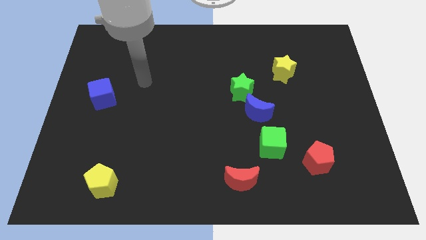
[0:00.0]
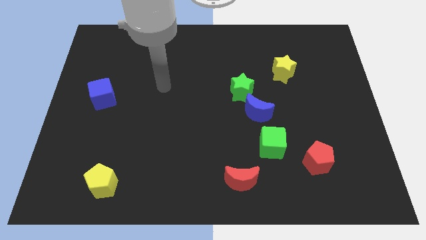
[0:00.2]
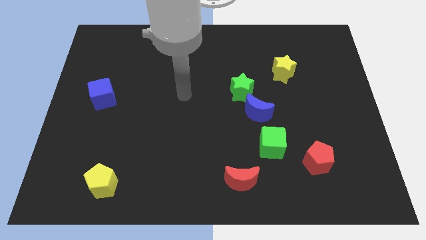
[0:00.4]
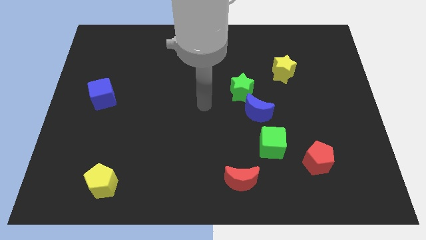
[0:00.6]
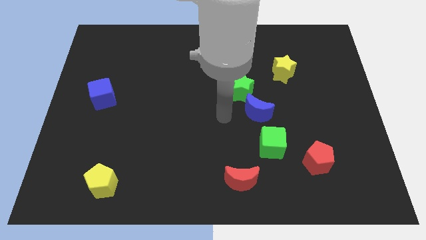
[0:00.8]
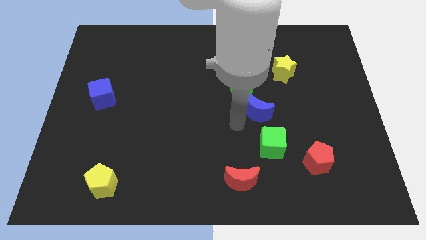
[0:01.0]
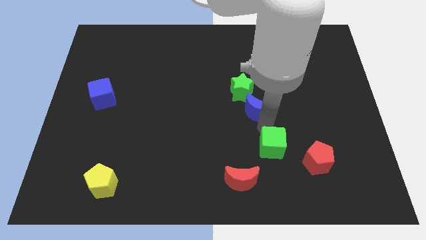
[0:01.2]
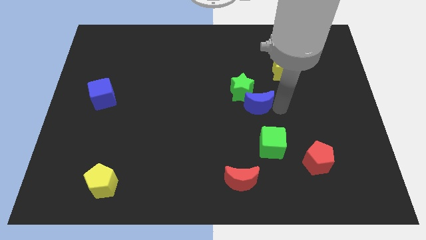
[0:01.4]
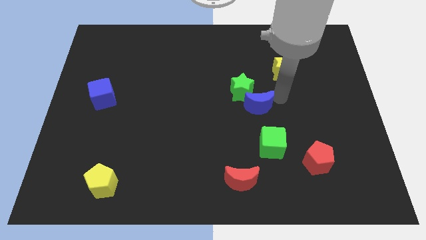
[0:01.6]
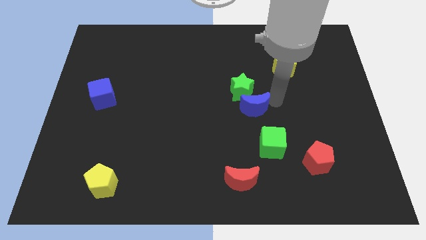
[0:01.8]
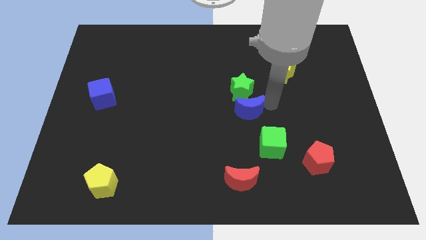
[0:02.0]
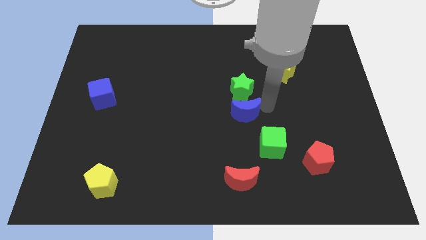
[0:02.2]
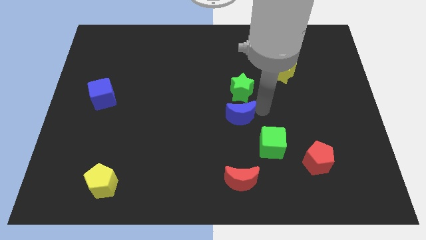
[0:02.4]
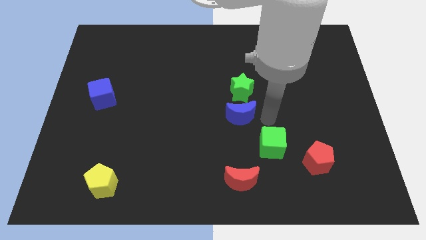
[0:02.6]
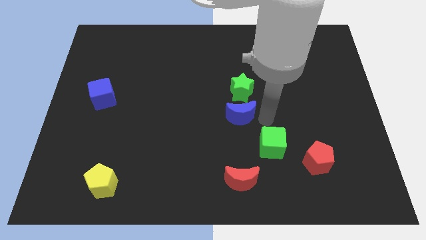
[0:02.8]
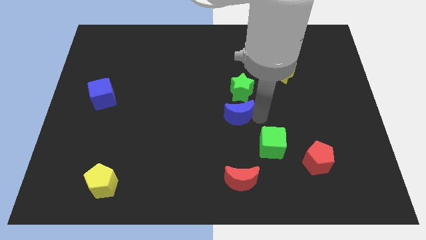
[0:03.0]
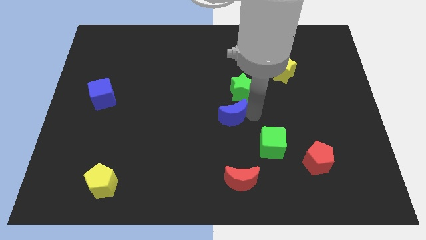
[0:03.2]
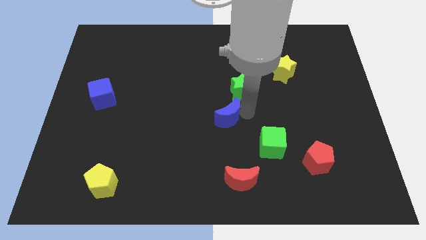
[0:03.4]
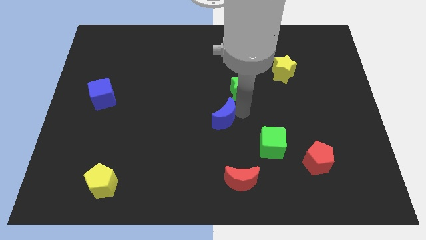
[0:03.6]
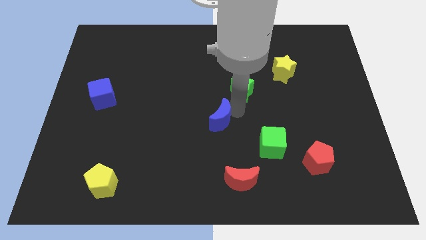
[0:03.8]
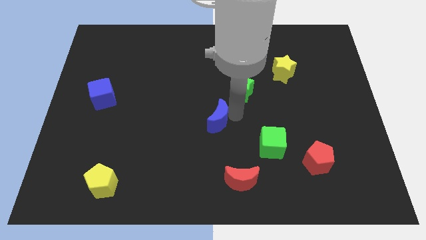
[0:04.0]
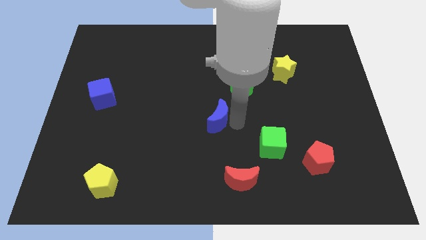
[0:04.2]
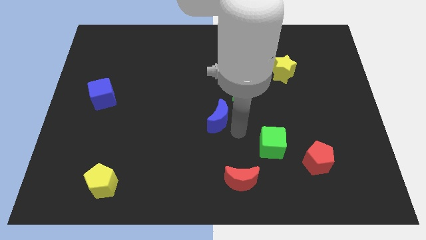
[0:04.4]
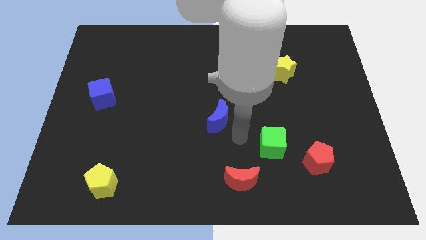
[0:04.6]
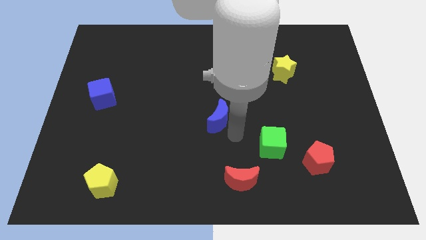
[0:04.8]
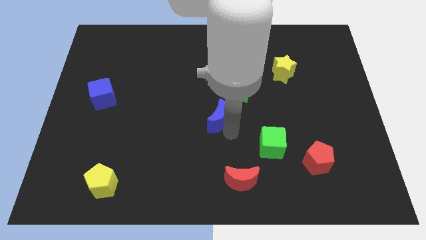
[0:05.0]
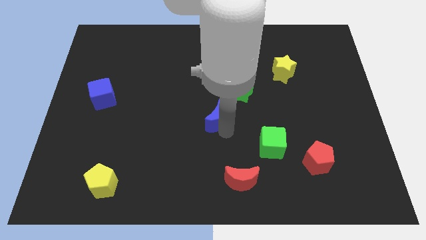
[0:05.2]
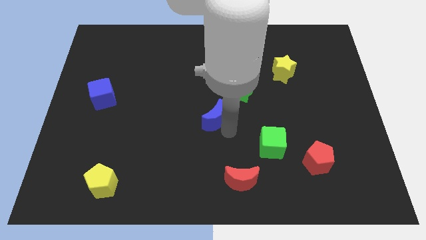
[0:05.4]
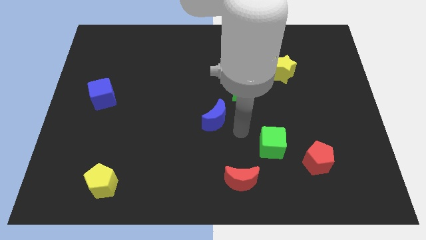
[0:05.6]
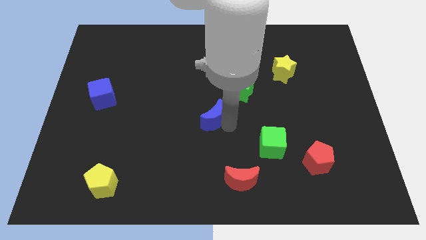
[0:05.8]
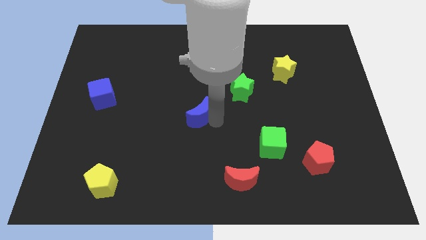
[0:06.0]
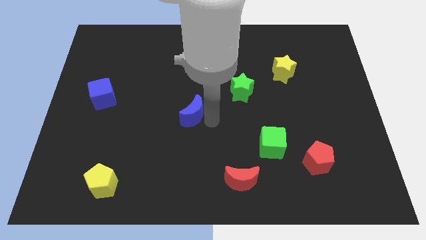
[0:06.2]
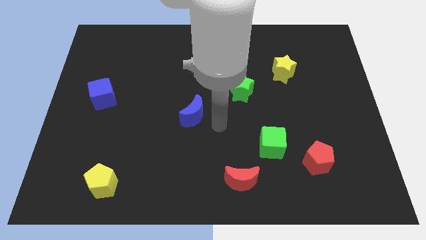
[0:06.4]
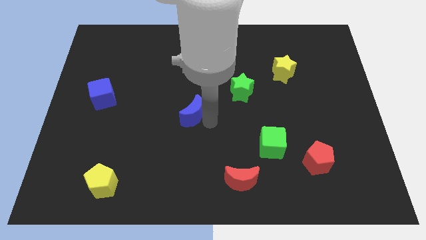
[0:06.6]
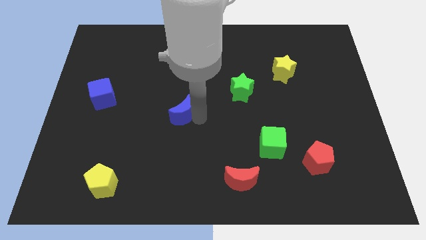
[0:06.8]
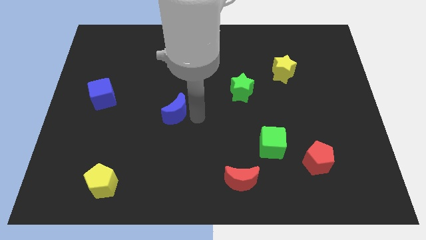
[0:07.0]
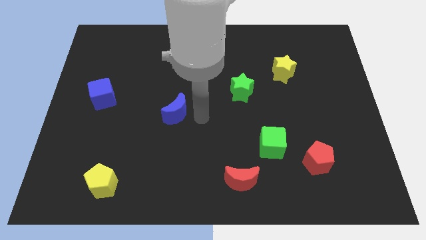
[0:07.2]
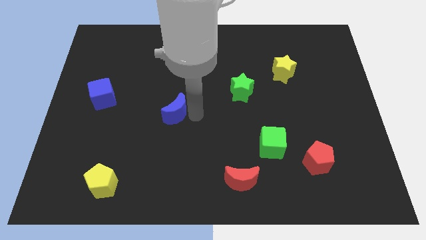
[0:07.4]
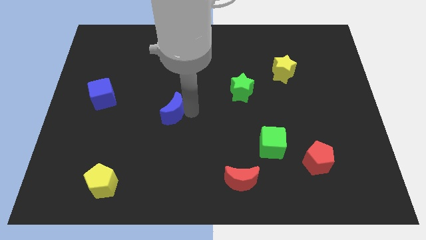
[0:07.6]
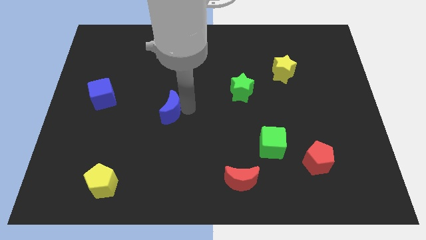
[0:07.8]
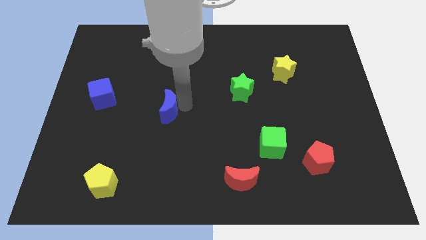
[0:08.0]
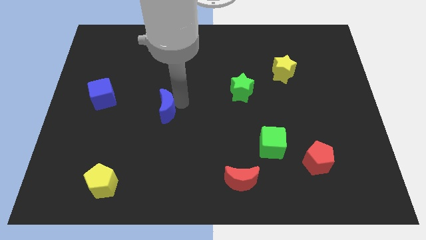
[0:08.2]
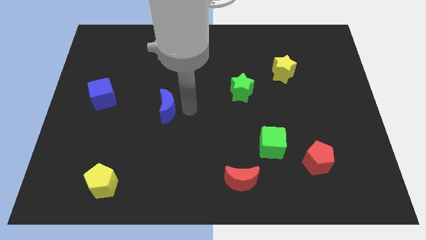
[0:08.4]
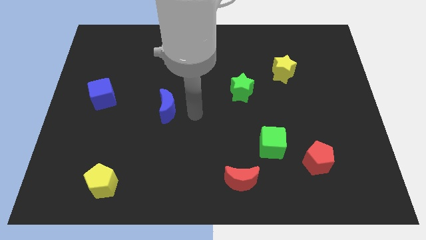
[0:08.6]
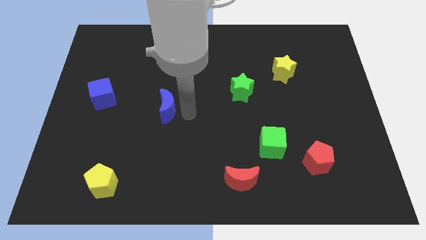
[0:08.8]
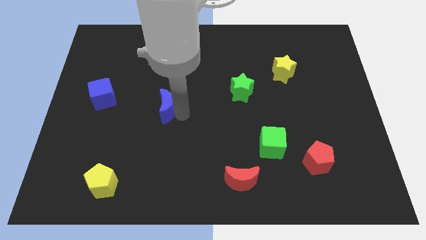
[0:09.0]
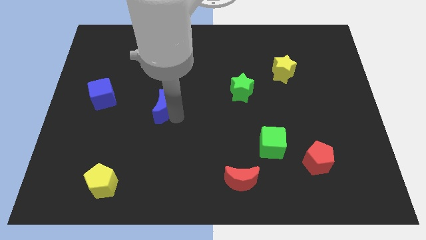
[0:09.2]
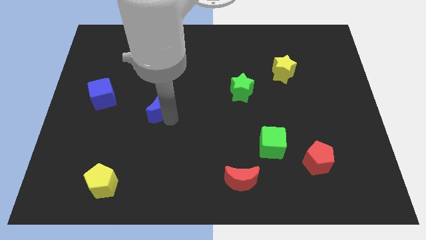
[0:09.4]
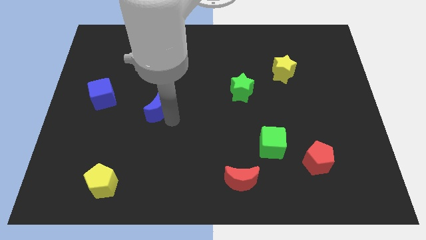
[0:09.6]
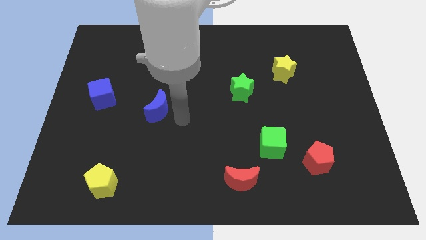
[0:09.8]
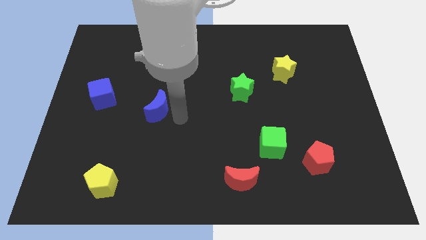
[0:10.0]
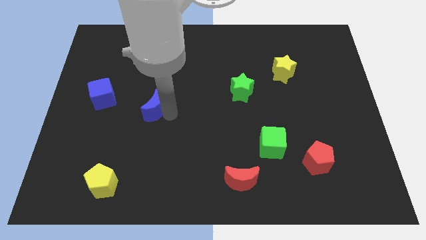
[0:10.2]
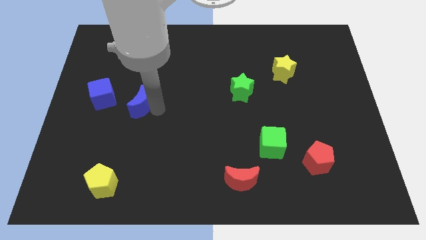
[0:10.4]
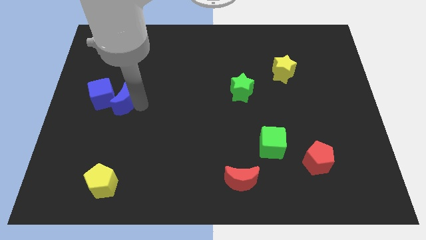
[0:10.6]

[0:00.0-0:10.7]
put the blue moon close to the blue cube

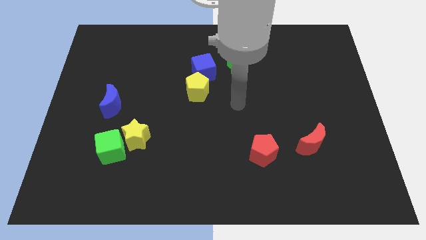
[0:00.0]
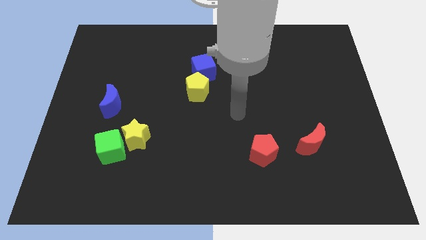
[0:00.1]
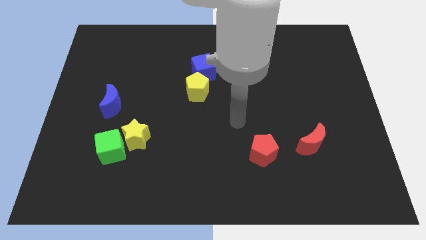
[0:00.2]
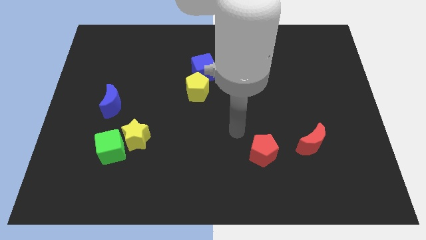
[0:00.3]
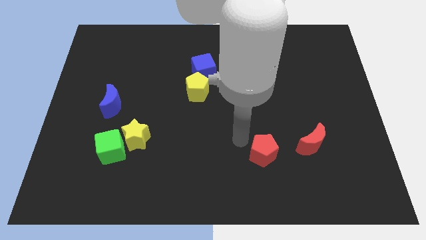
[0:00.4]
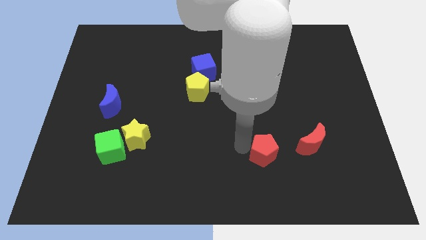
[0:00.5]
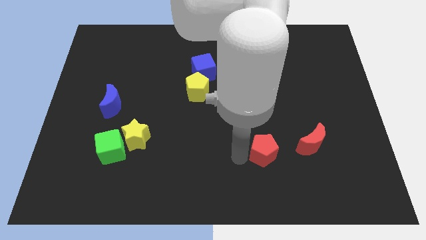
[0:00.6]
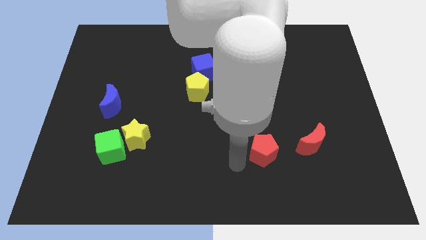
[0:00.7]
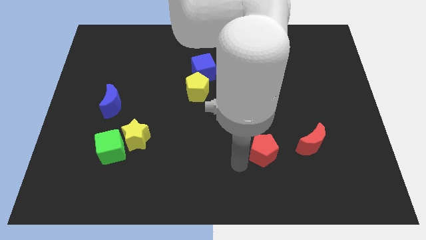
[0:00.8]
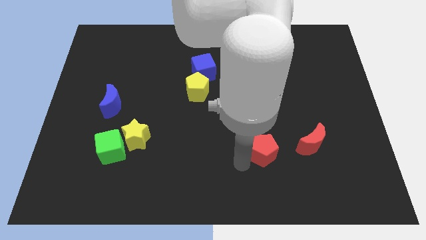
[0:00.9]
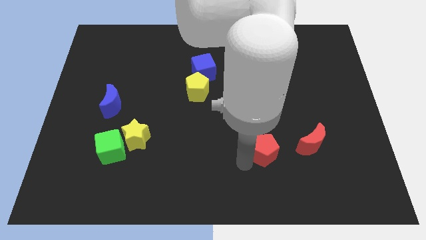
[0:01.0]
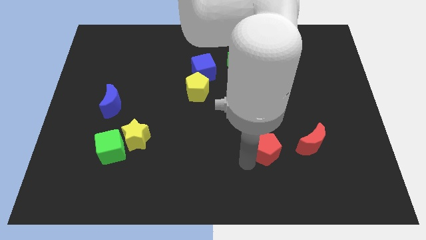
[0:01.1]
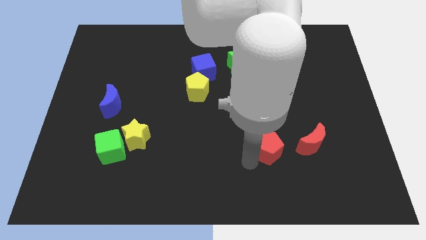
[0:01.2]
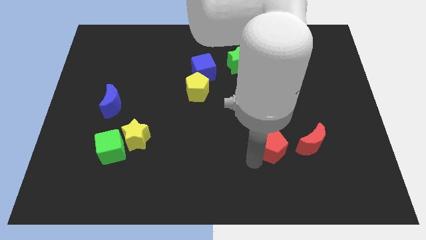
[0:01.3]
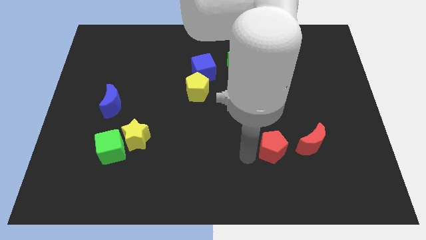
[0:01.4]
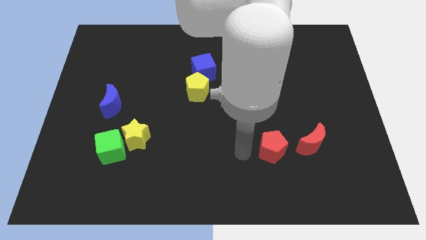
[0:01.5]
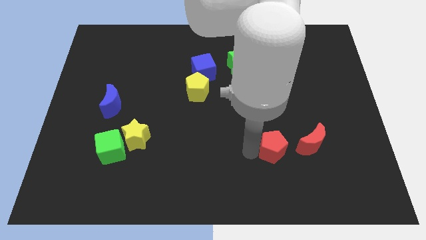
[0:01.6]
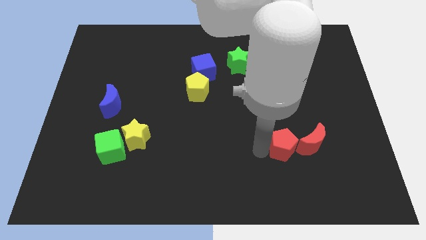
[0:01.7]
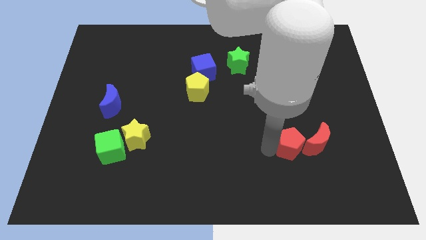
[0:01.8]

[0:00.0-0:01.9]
slide the red pentagon close to the red moon
